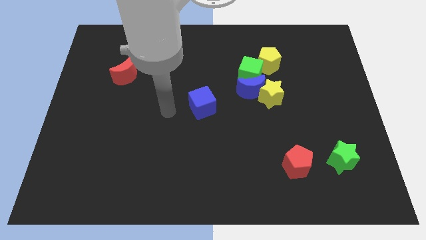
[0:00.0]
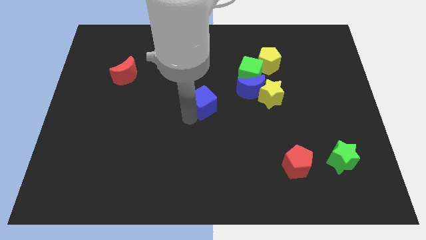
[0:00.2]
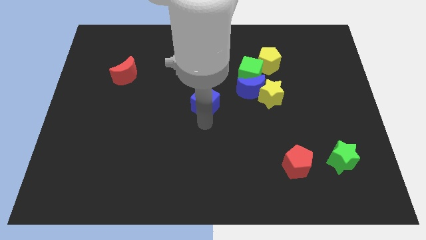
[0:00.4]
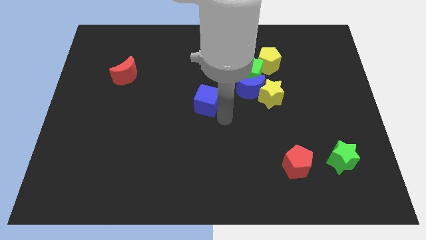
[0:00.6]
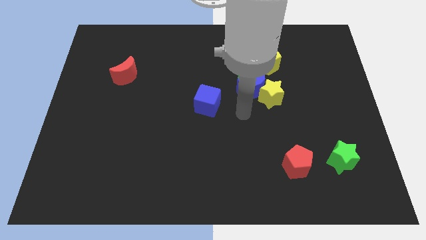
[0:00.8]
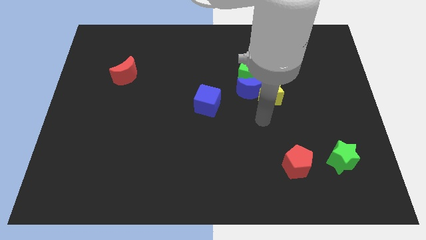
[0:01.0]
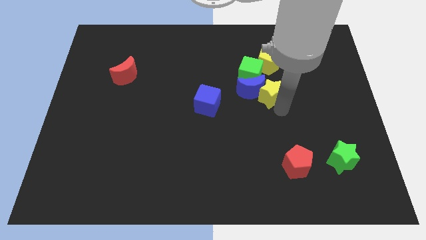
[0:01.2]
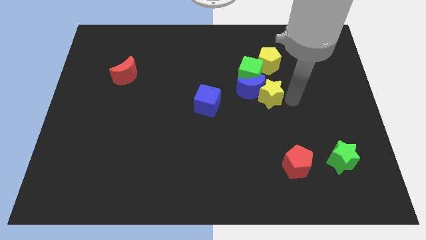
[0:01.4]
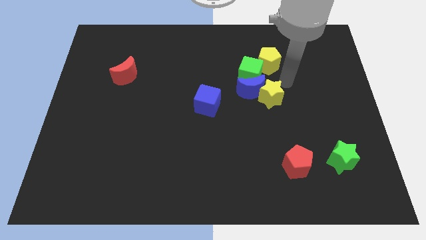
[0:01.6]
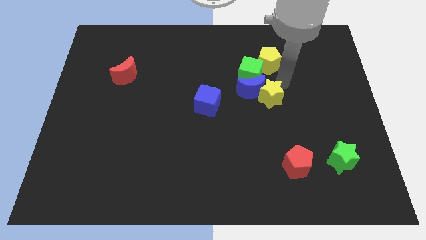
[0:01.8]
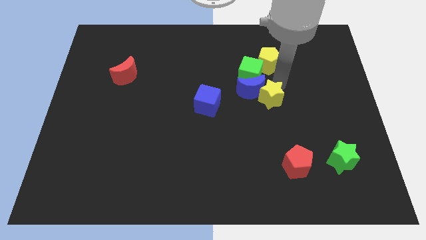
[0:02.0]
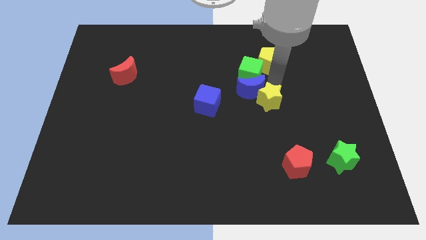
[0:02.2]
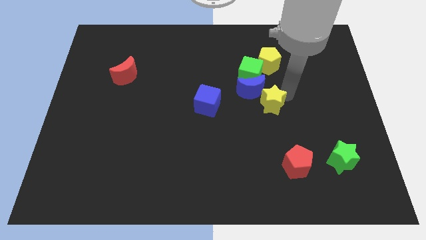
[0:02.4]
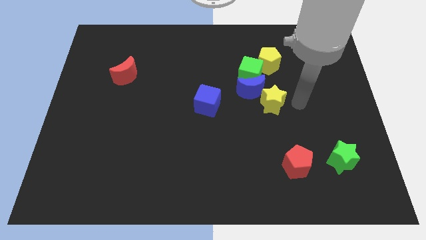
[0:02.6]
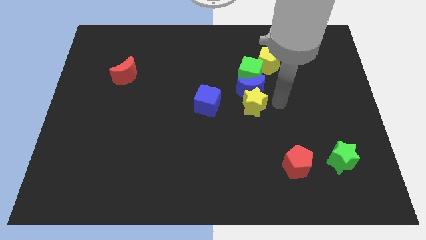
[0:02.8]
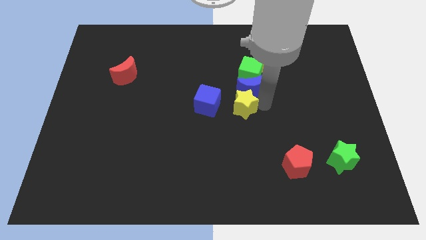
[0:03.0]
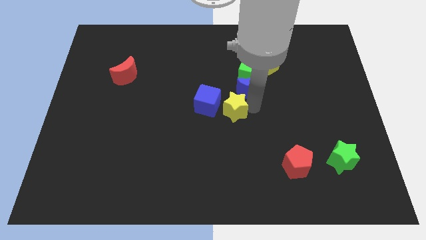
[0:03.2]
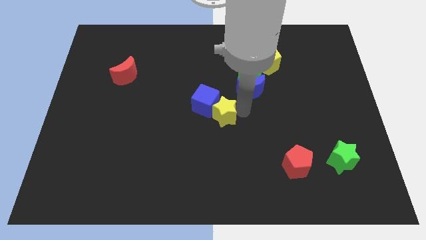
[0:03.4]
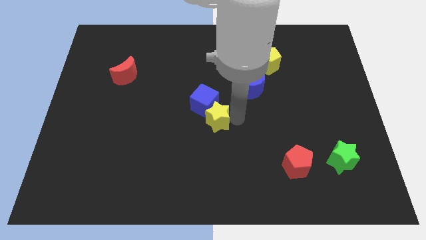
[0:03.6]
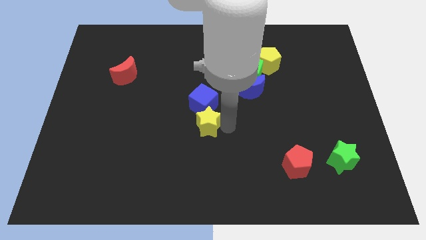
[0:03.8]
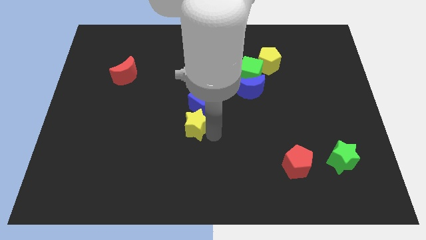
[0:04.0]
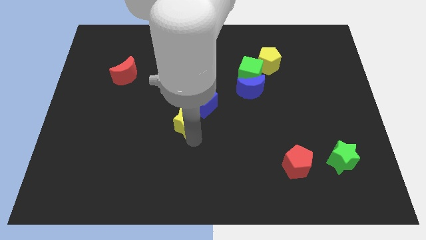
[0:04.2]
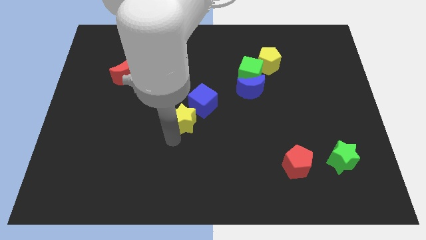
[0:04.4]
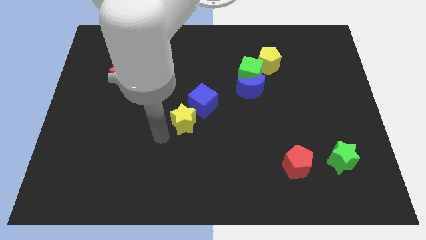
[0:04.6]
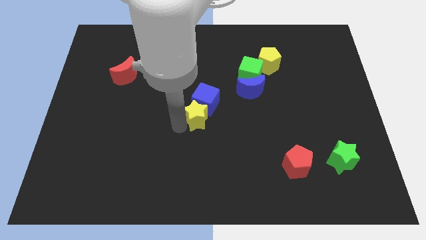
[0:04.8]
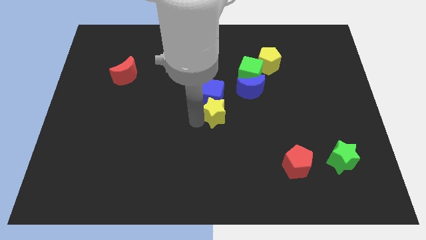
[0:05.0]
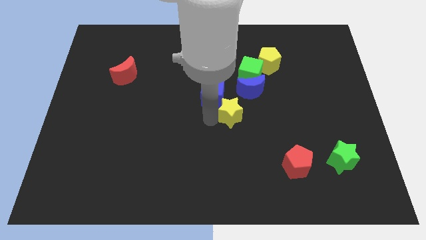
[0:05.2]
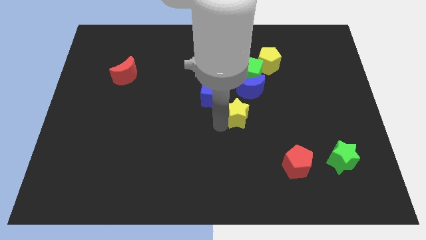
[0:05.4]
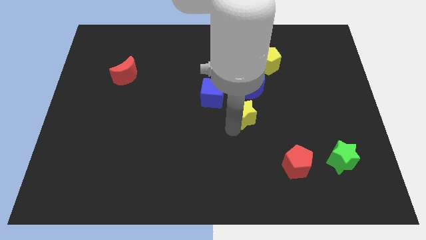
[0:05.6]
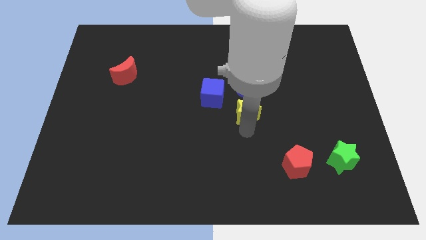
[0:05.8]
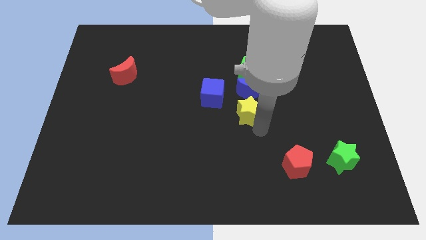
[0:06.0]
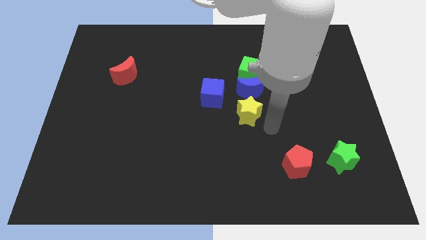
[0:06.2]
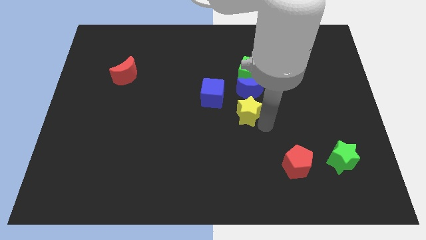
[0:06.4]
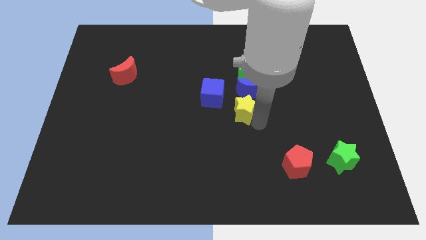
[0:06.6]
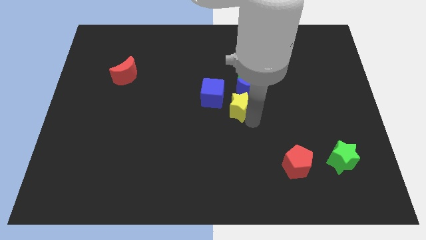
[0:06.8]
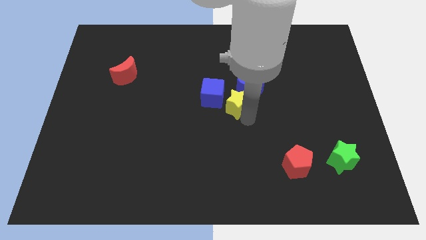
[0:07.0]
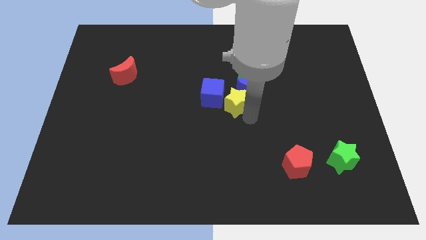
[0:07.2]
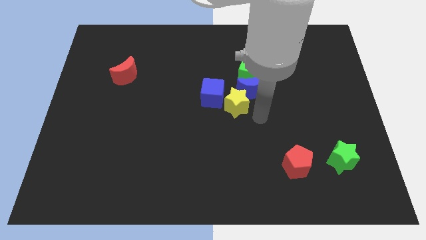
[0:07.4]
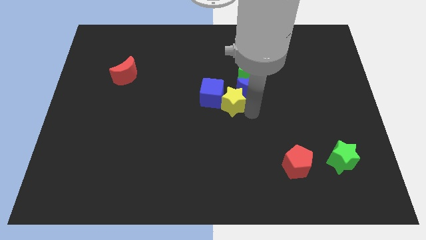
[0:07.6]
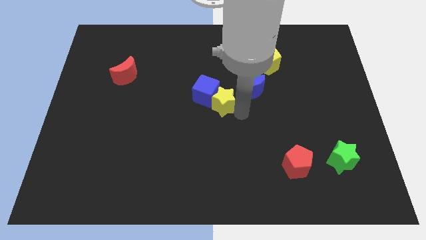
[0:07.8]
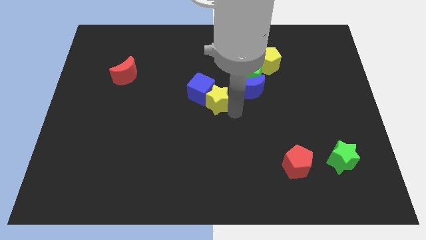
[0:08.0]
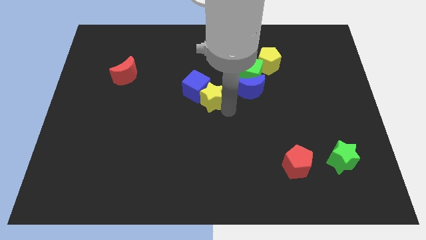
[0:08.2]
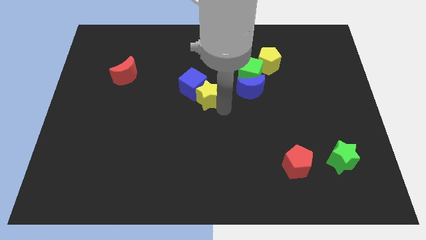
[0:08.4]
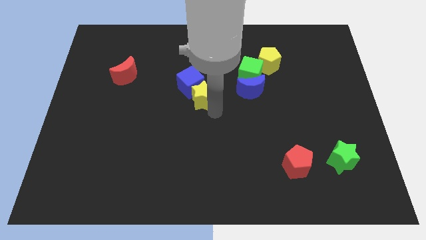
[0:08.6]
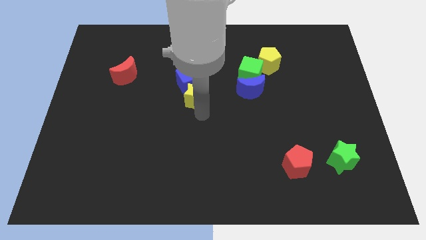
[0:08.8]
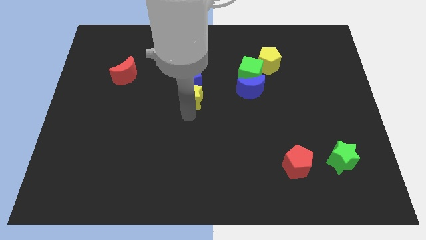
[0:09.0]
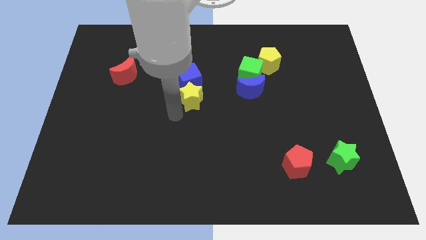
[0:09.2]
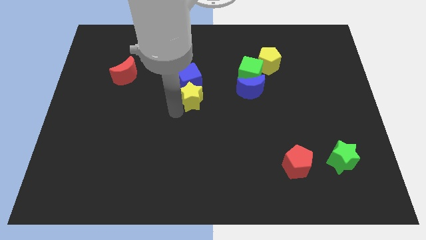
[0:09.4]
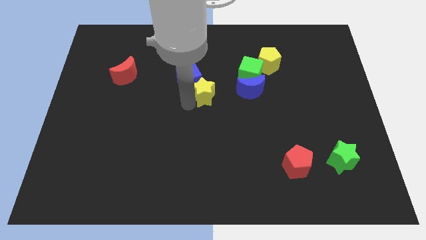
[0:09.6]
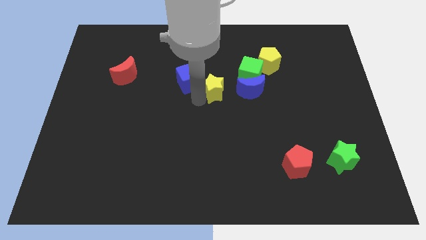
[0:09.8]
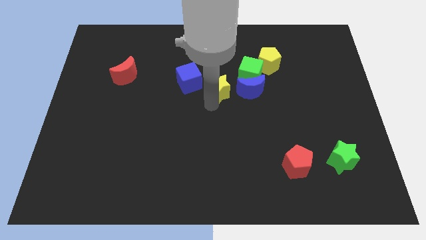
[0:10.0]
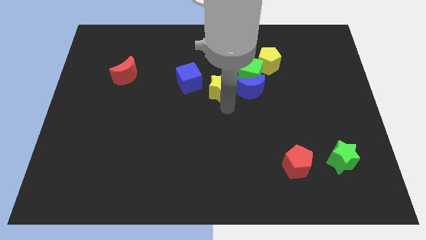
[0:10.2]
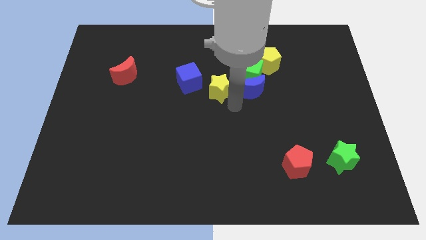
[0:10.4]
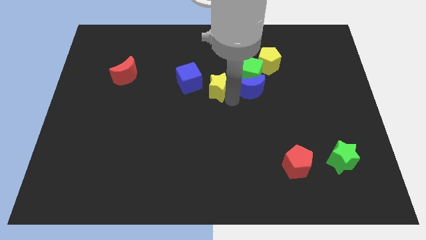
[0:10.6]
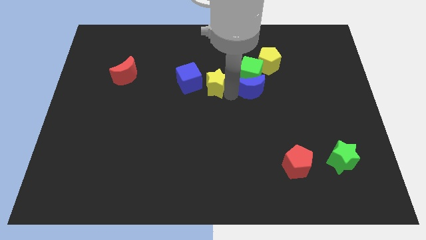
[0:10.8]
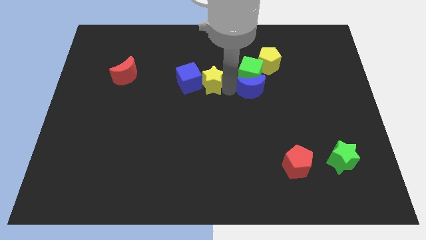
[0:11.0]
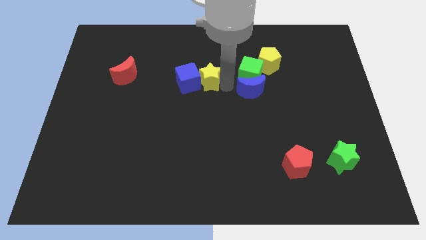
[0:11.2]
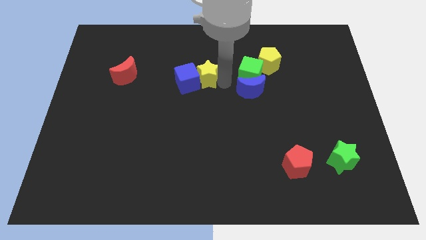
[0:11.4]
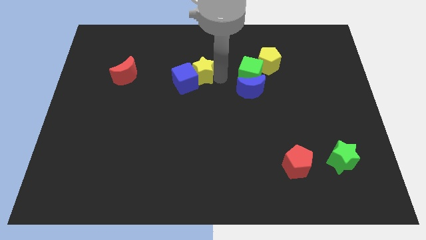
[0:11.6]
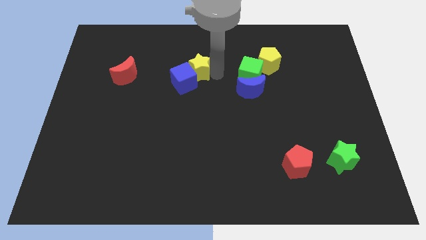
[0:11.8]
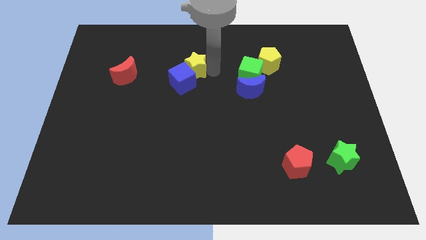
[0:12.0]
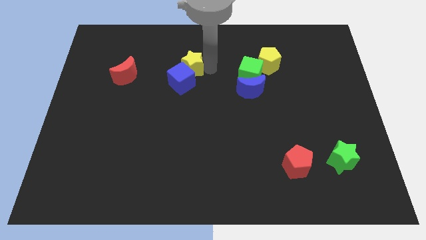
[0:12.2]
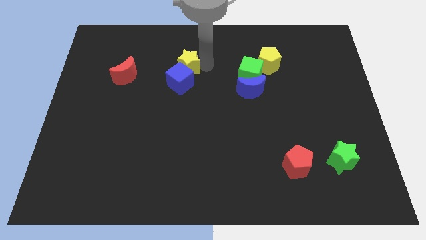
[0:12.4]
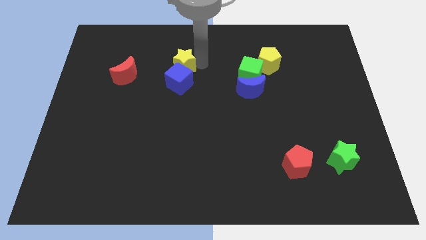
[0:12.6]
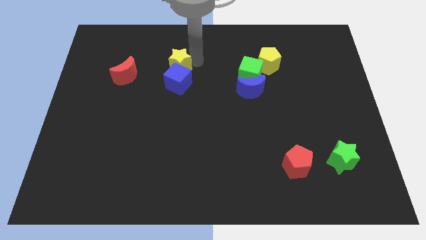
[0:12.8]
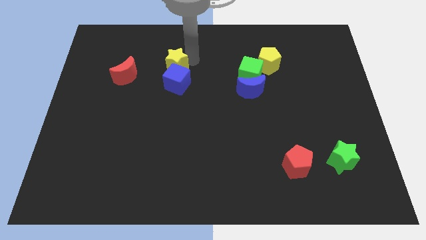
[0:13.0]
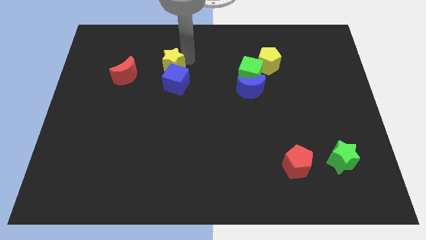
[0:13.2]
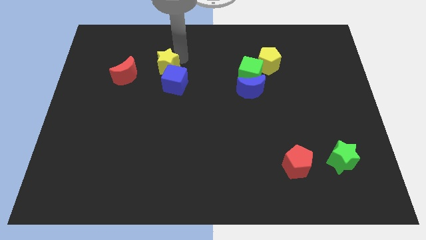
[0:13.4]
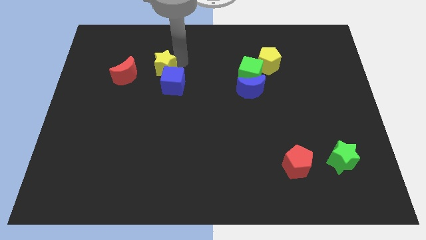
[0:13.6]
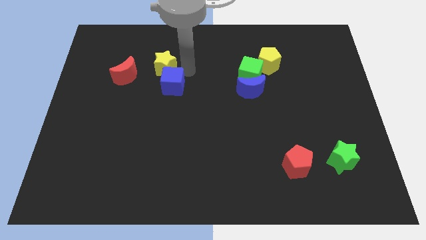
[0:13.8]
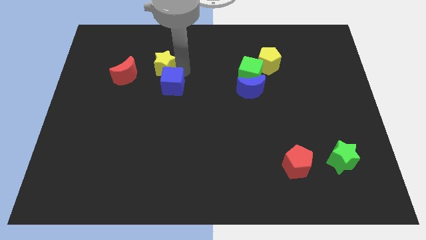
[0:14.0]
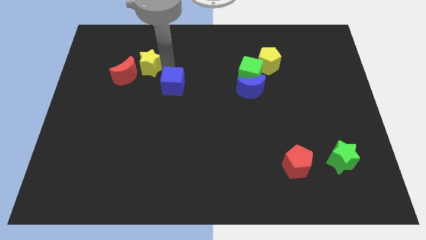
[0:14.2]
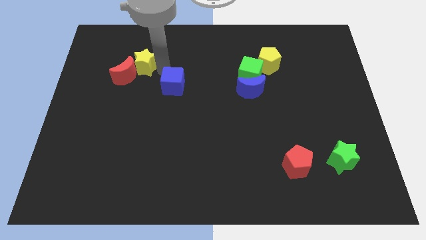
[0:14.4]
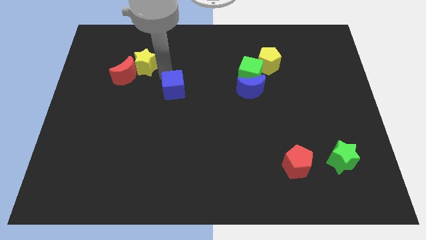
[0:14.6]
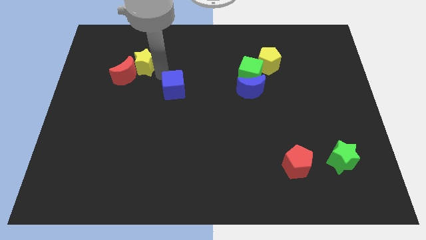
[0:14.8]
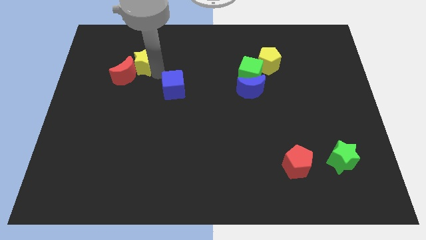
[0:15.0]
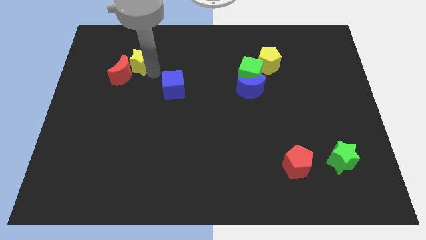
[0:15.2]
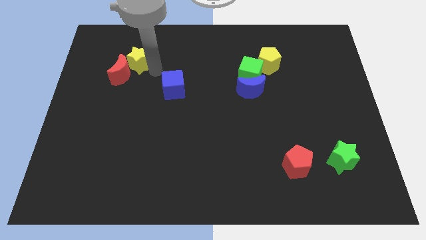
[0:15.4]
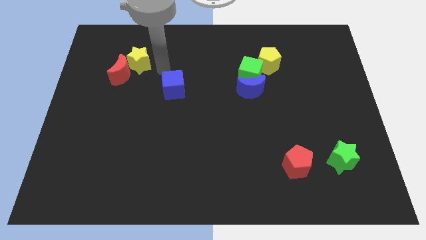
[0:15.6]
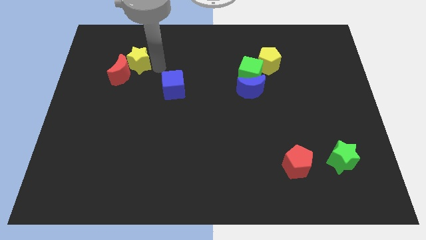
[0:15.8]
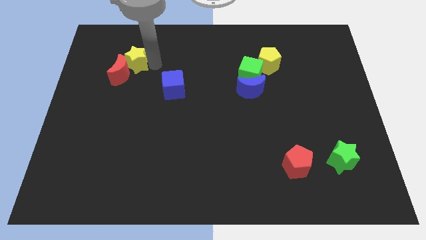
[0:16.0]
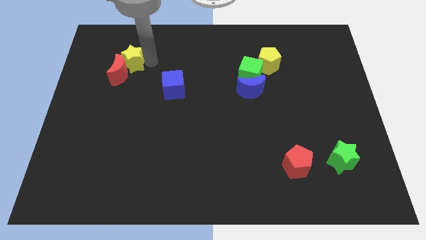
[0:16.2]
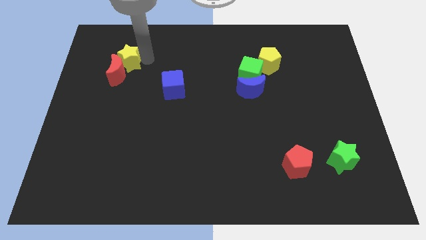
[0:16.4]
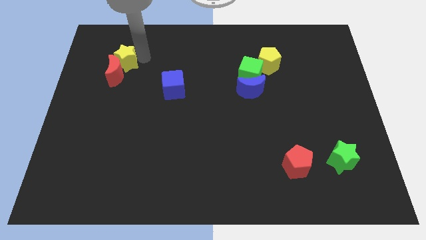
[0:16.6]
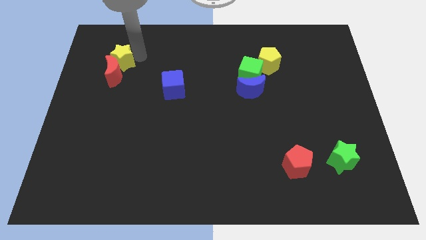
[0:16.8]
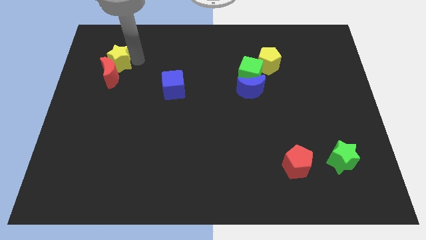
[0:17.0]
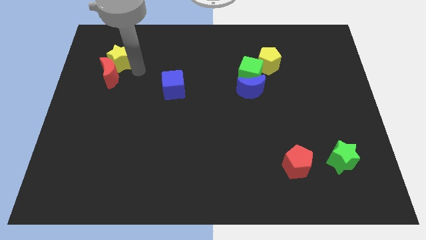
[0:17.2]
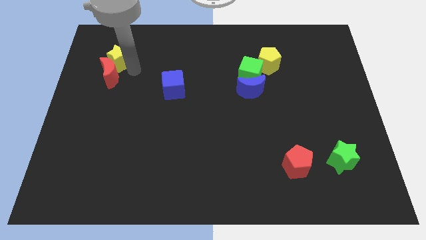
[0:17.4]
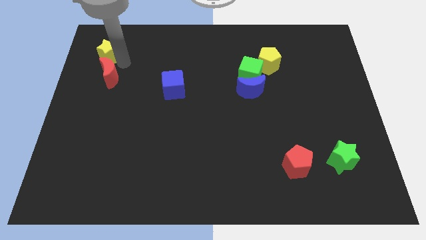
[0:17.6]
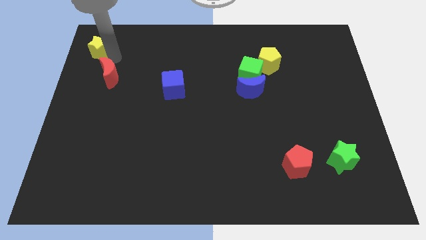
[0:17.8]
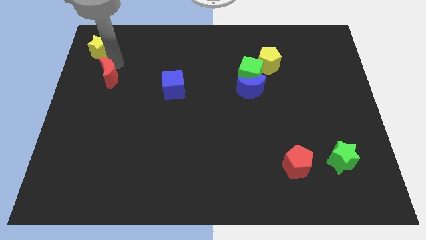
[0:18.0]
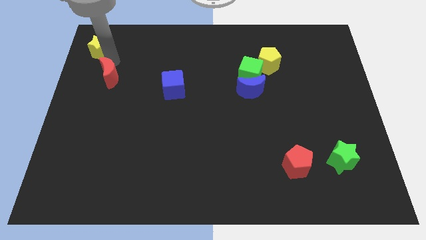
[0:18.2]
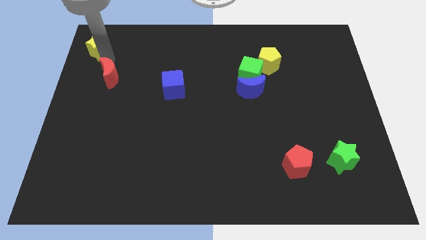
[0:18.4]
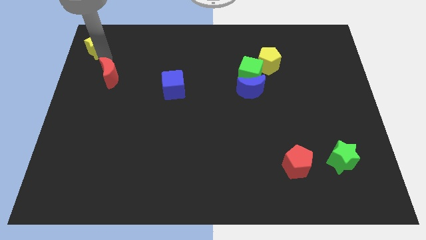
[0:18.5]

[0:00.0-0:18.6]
put the yellow star to the upper left corner
